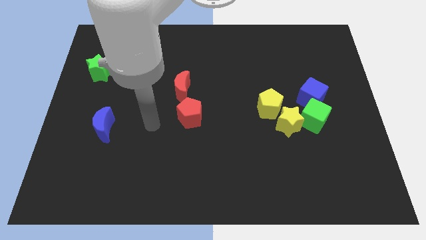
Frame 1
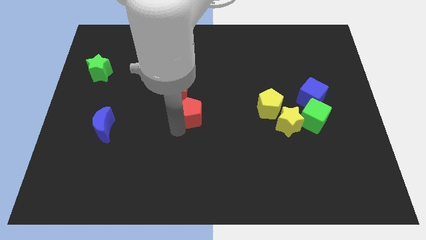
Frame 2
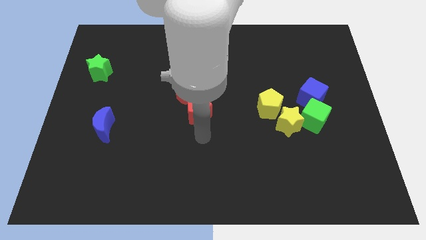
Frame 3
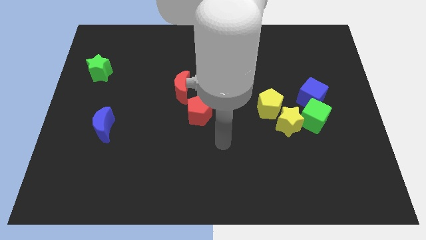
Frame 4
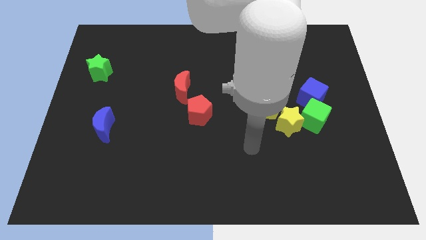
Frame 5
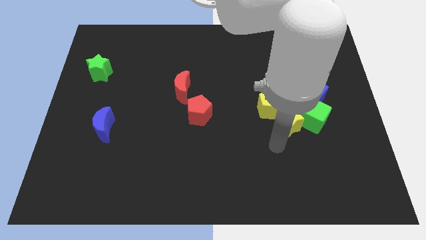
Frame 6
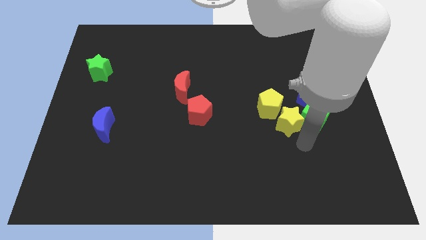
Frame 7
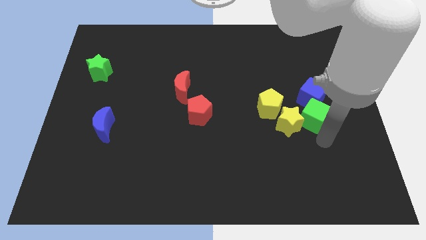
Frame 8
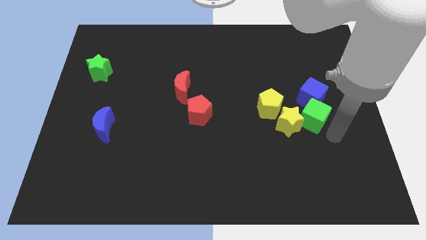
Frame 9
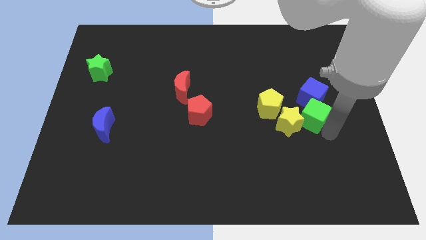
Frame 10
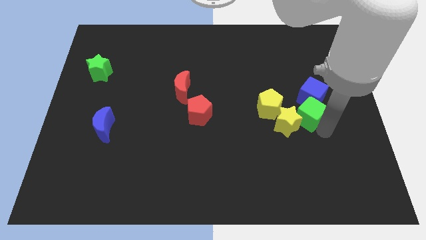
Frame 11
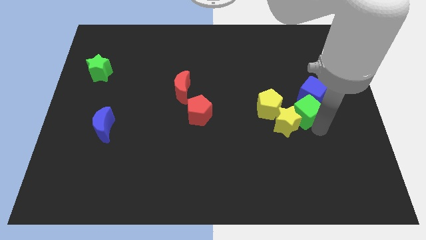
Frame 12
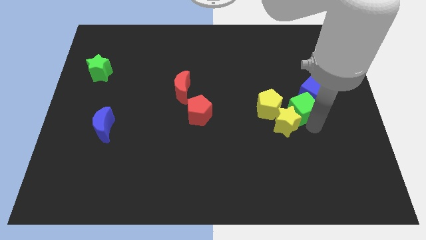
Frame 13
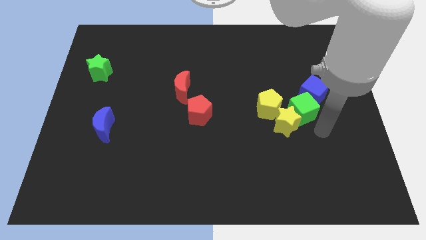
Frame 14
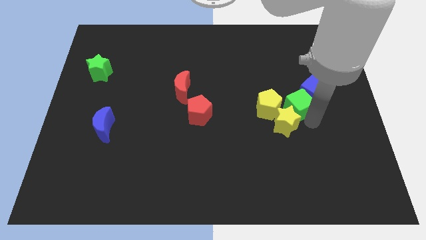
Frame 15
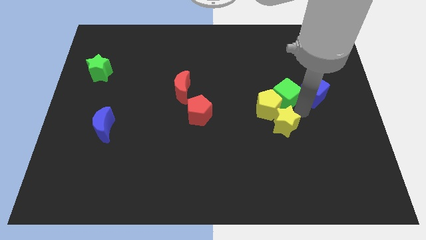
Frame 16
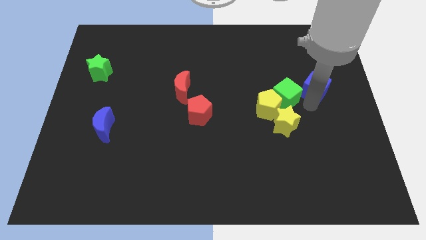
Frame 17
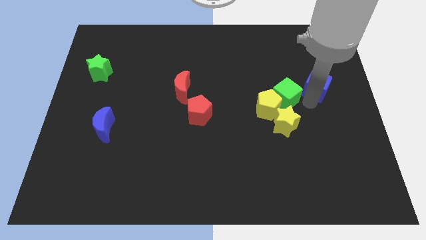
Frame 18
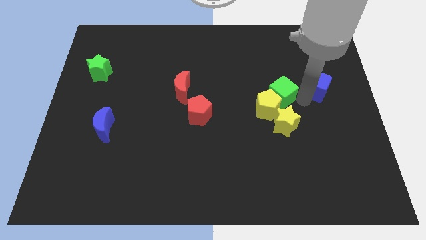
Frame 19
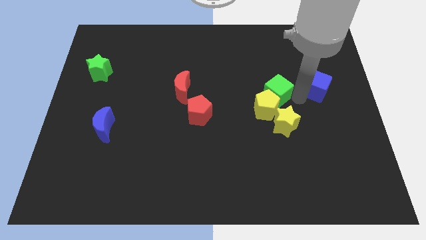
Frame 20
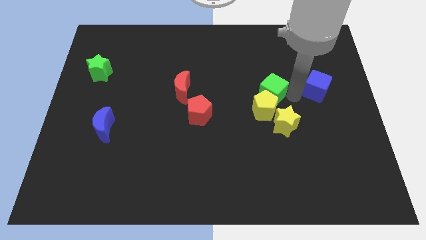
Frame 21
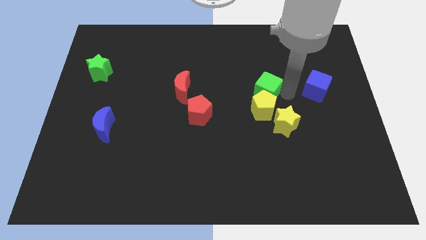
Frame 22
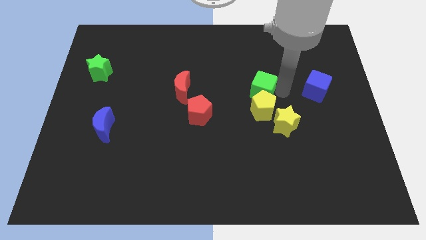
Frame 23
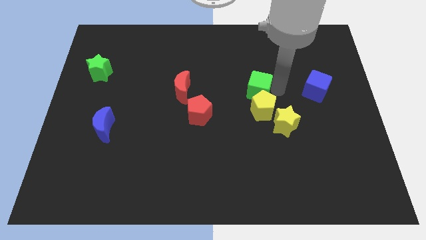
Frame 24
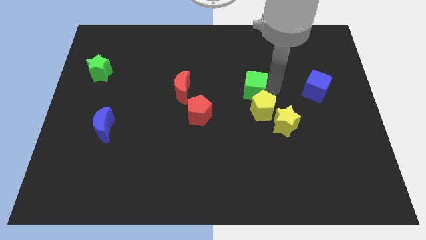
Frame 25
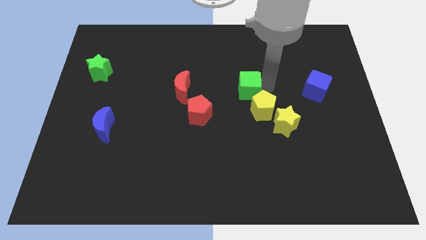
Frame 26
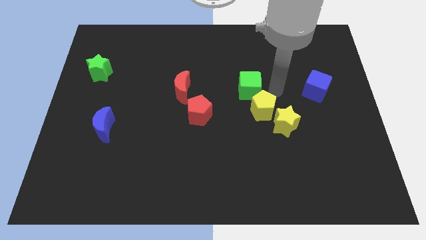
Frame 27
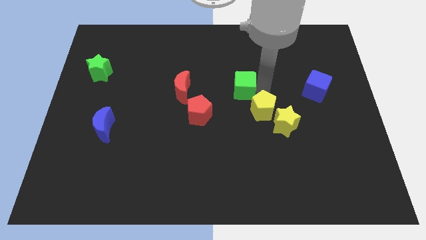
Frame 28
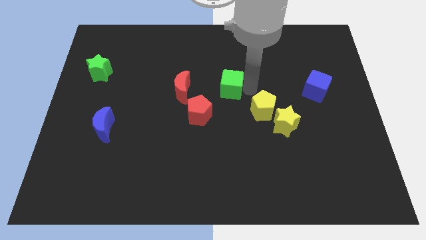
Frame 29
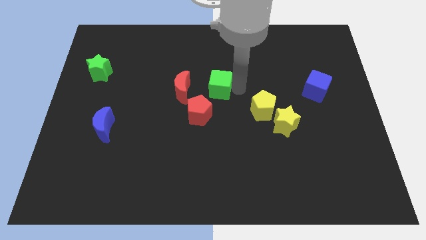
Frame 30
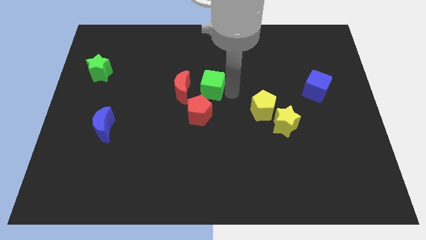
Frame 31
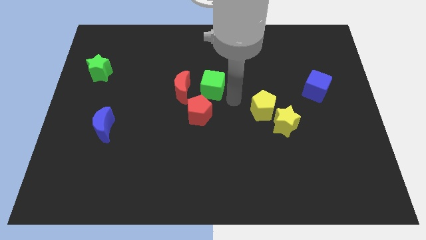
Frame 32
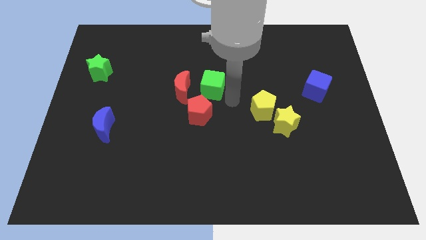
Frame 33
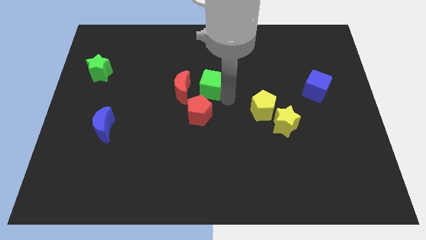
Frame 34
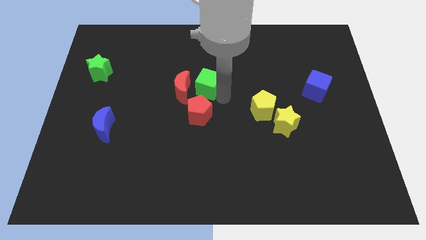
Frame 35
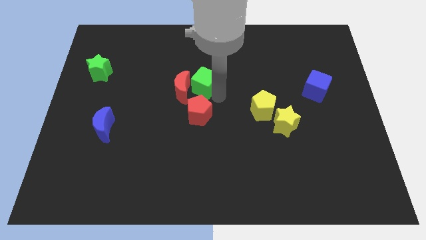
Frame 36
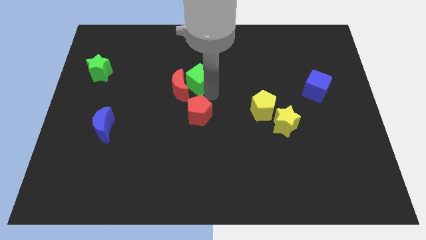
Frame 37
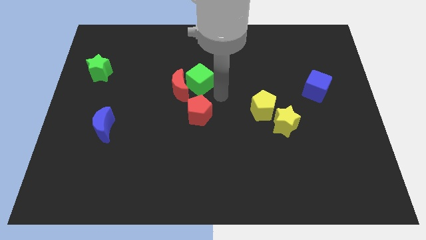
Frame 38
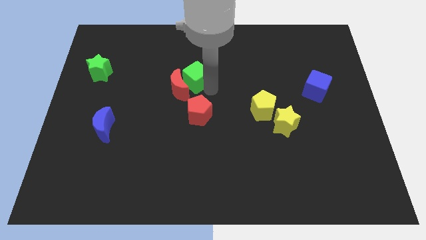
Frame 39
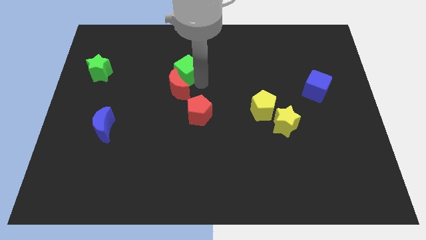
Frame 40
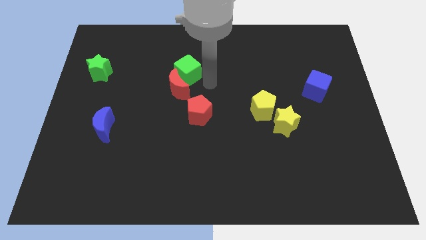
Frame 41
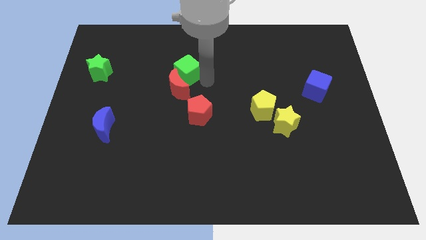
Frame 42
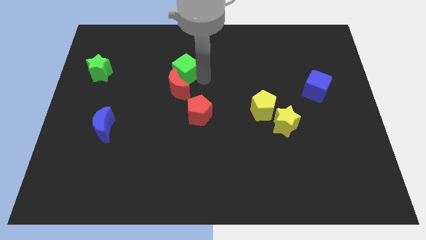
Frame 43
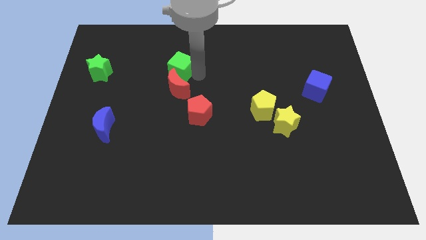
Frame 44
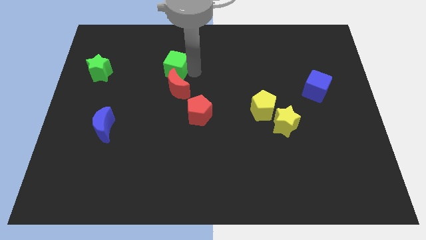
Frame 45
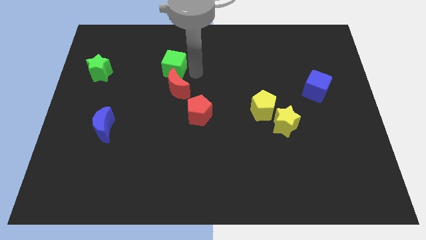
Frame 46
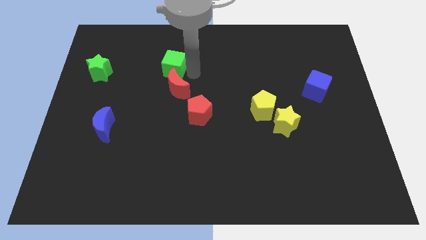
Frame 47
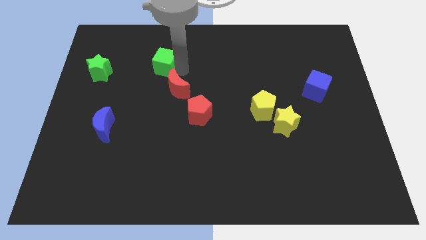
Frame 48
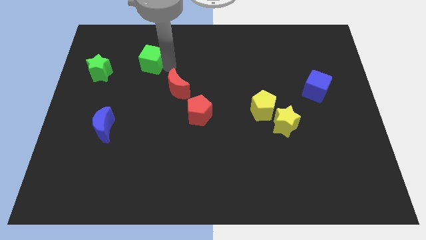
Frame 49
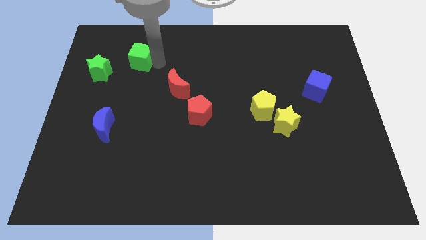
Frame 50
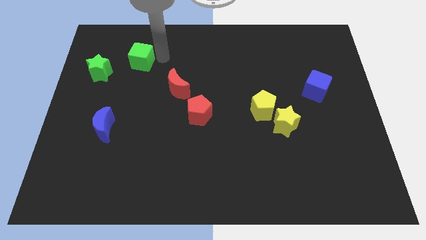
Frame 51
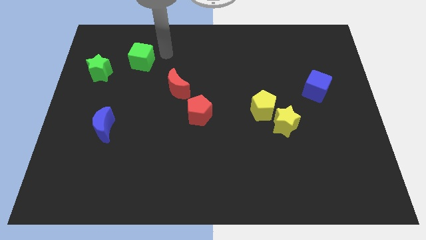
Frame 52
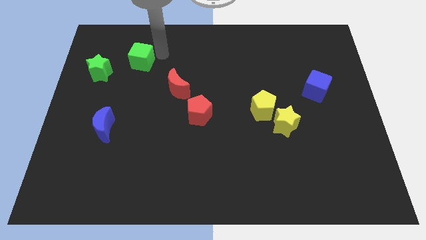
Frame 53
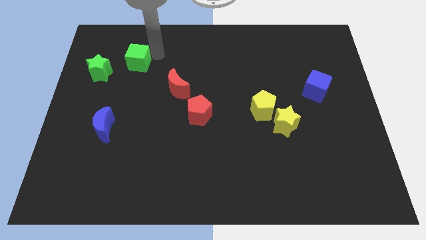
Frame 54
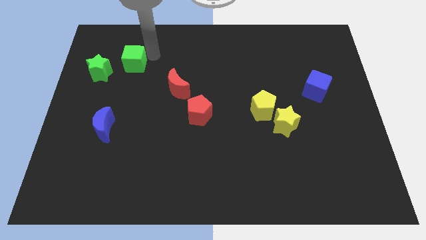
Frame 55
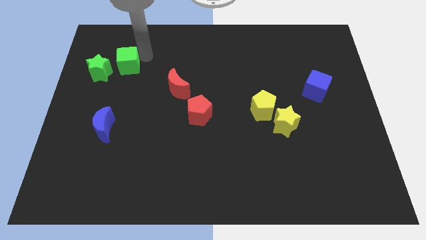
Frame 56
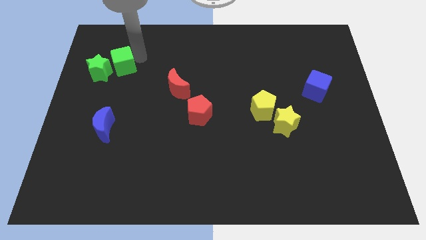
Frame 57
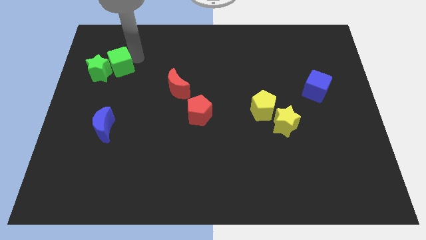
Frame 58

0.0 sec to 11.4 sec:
slide the green cube next to the green star

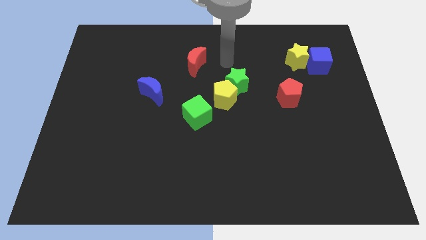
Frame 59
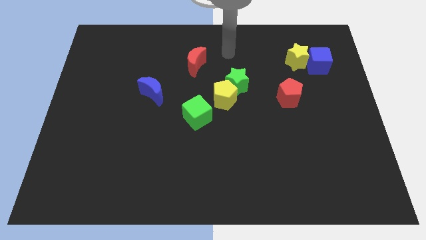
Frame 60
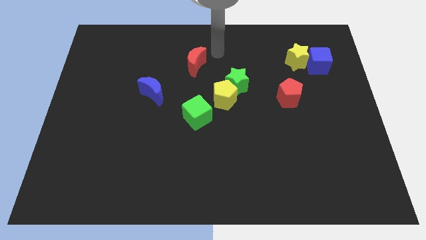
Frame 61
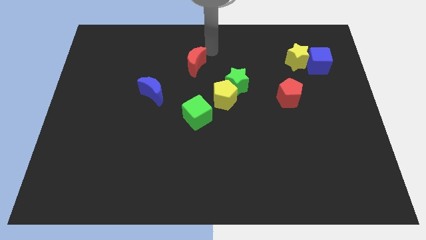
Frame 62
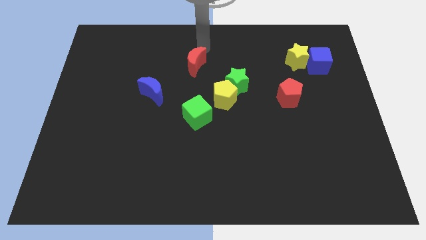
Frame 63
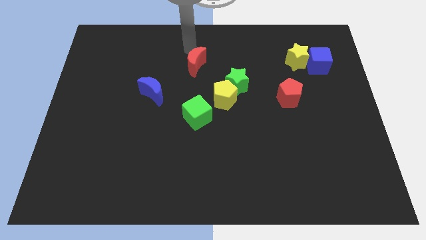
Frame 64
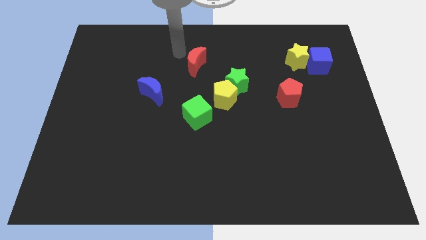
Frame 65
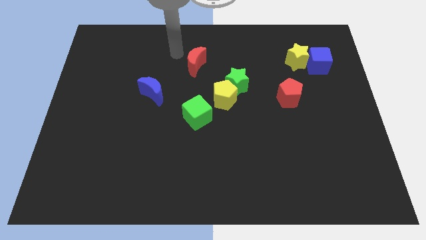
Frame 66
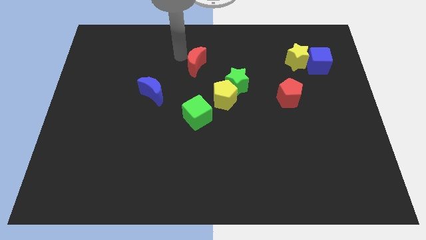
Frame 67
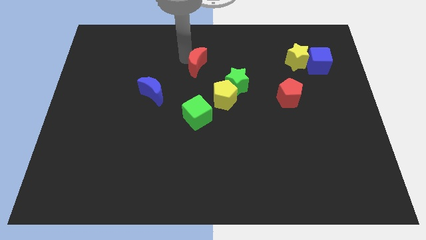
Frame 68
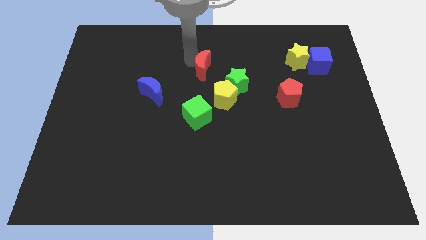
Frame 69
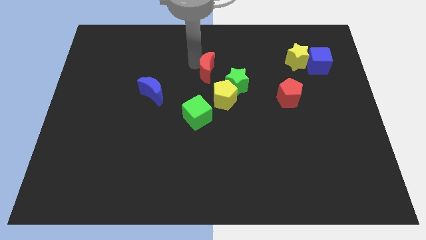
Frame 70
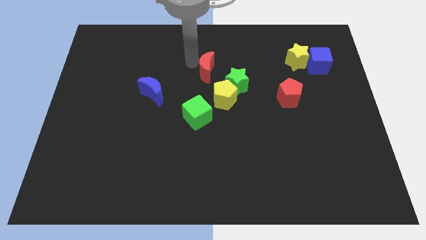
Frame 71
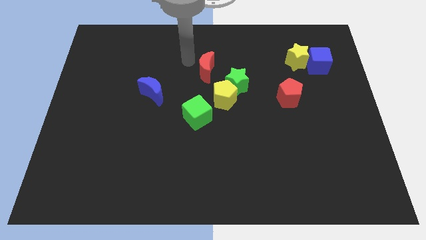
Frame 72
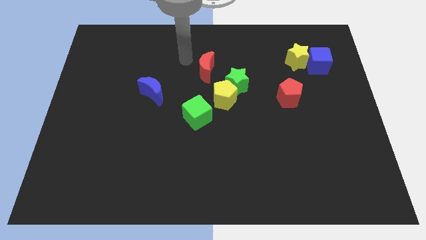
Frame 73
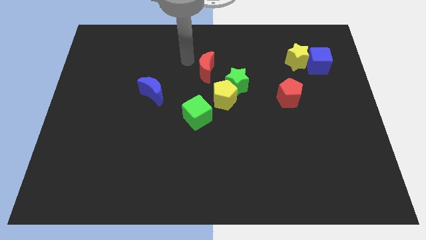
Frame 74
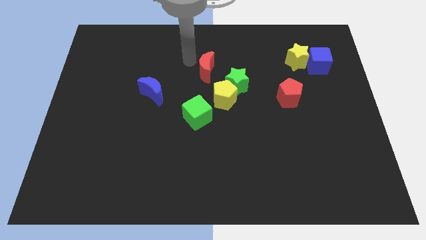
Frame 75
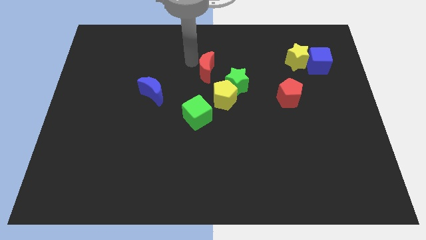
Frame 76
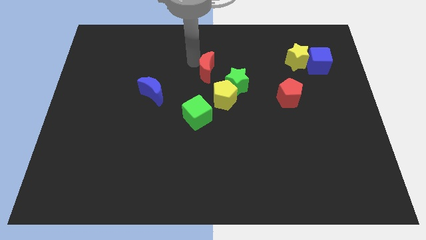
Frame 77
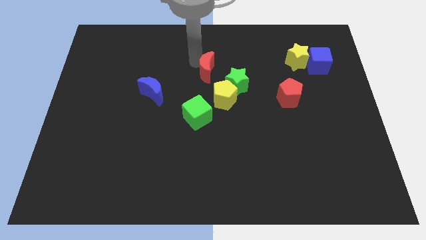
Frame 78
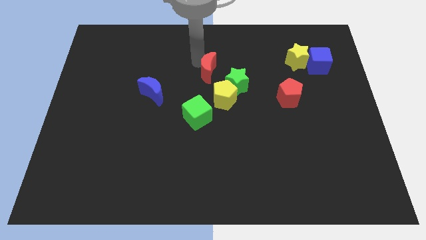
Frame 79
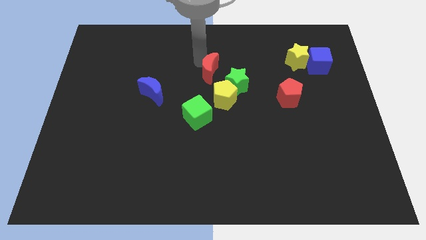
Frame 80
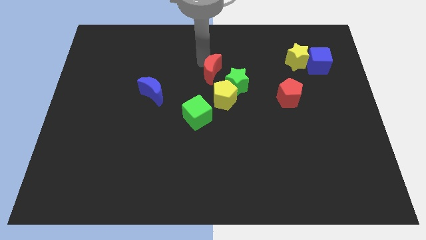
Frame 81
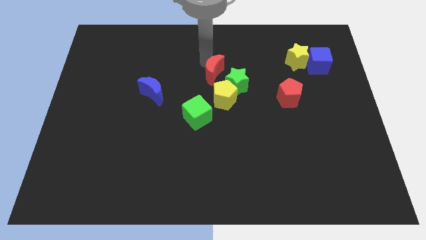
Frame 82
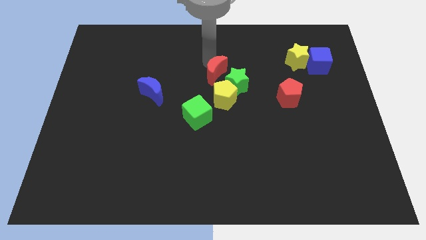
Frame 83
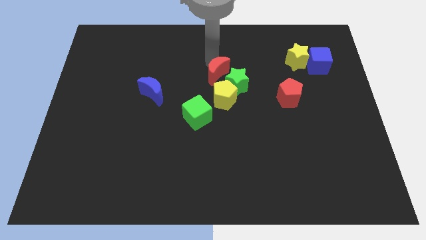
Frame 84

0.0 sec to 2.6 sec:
move the red moon towards the green star
